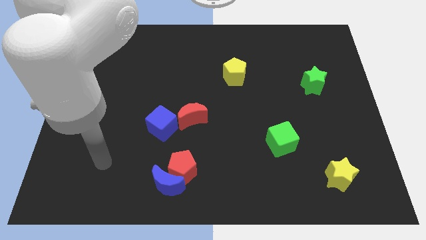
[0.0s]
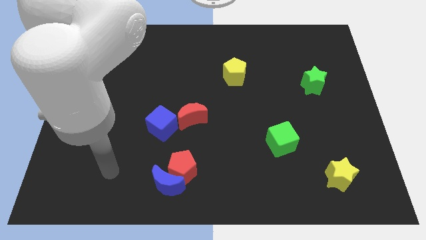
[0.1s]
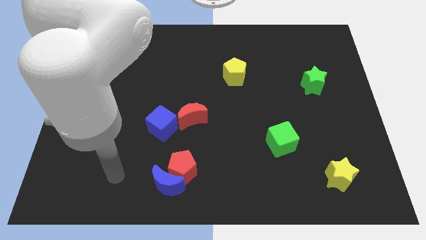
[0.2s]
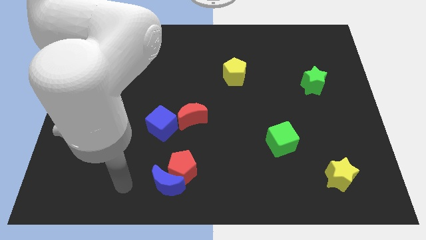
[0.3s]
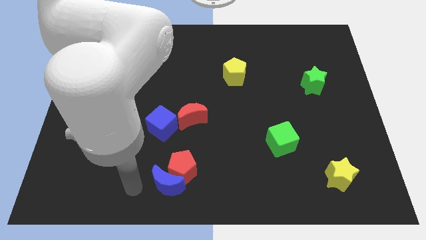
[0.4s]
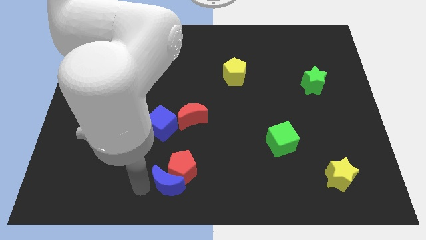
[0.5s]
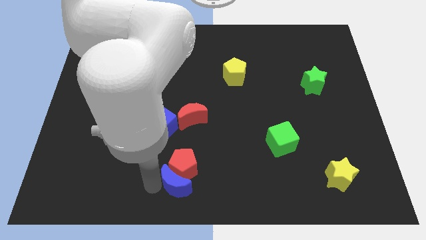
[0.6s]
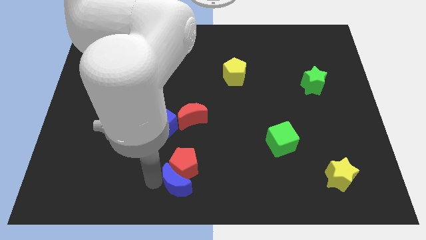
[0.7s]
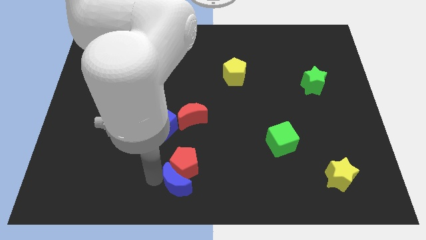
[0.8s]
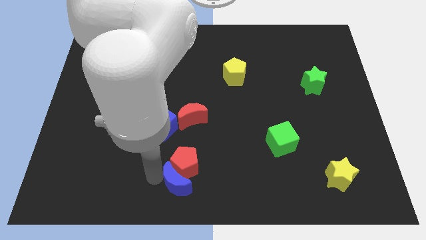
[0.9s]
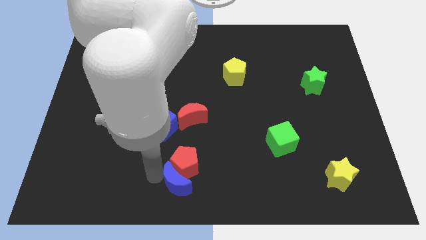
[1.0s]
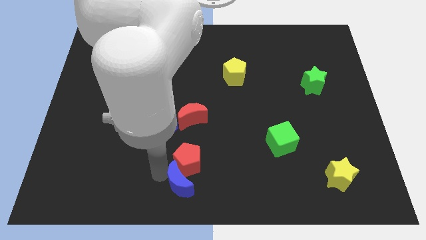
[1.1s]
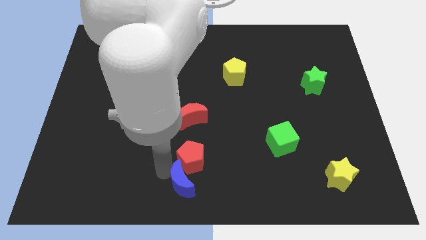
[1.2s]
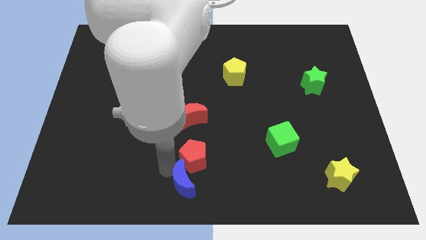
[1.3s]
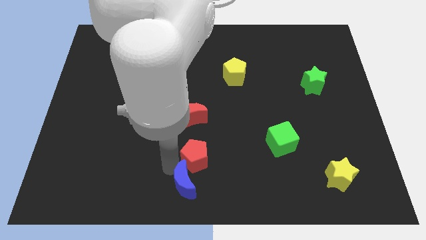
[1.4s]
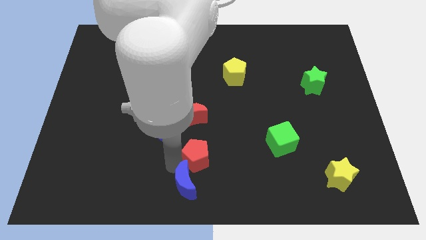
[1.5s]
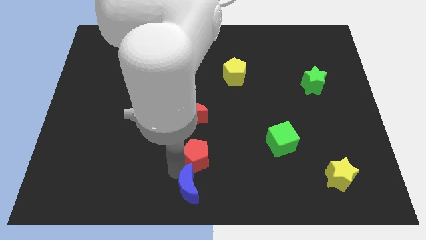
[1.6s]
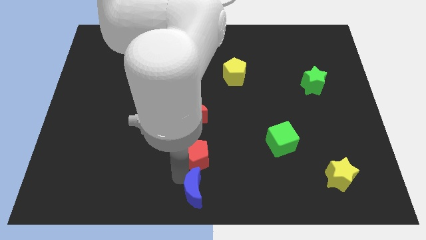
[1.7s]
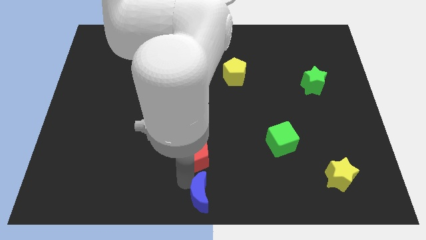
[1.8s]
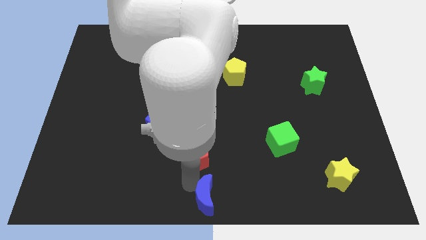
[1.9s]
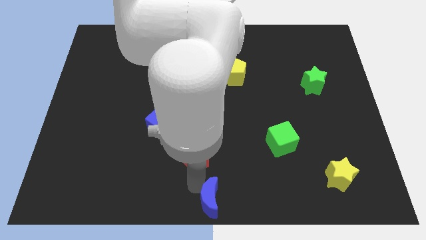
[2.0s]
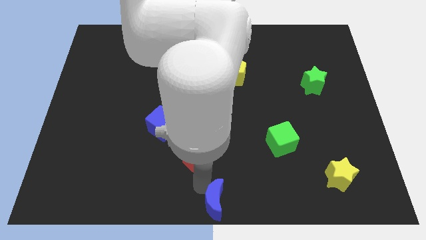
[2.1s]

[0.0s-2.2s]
move the red pentagon away from the blue moon

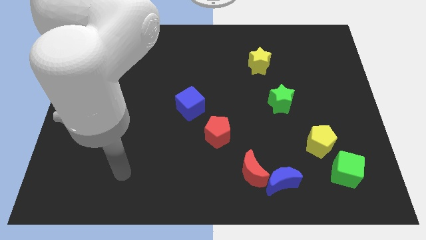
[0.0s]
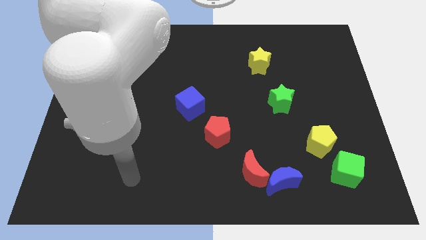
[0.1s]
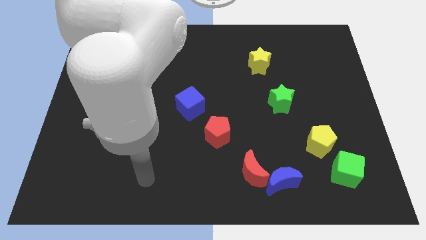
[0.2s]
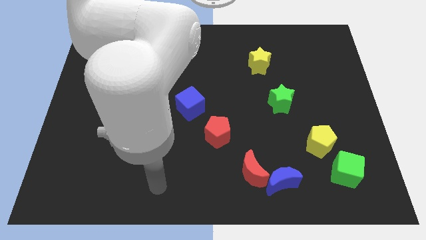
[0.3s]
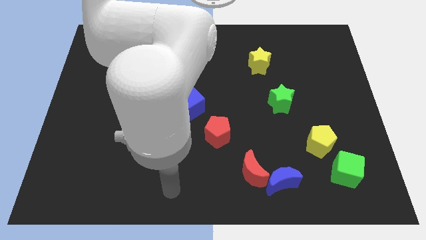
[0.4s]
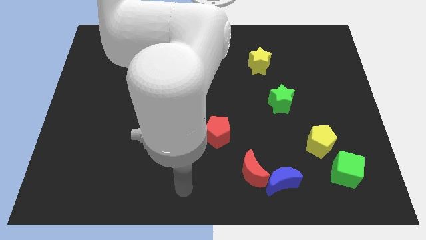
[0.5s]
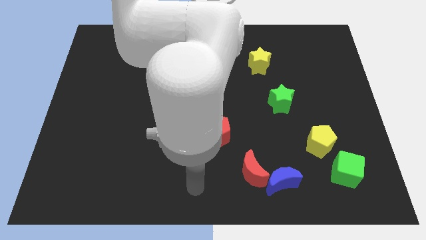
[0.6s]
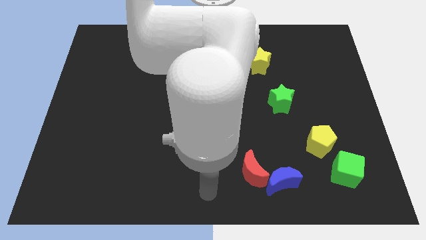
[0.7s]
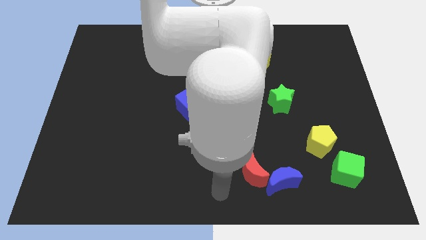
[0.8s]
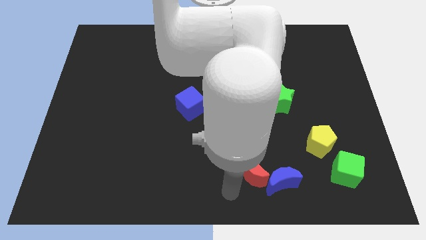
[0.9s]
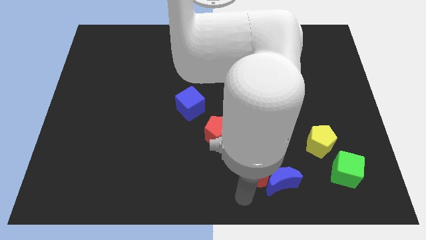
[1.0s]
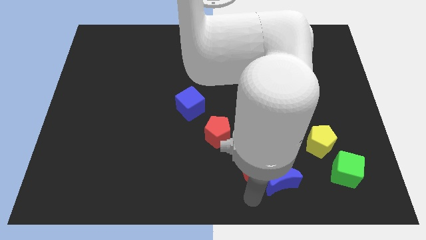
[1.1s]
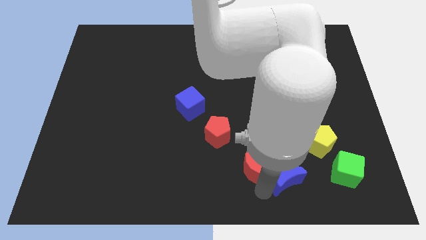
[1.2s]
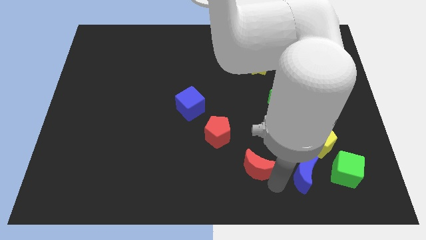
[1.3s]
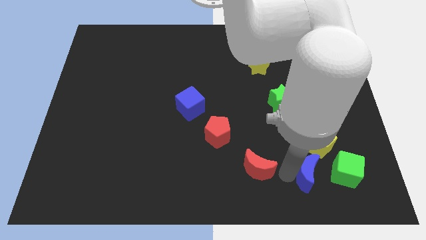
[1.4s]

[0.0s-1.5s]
separate the red moon from the blue moon

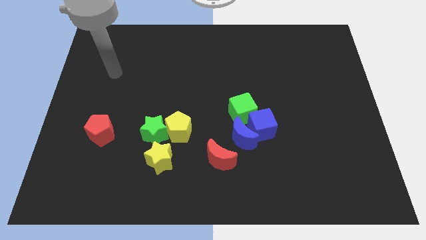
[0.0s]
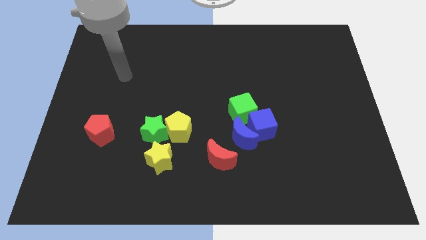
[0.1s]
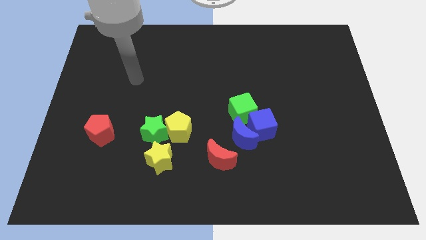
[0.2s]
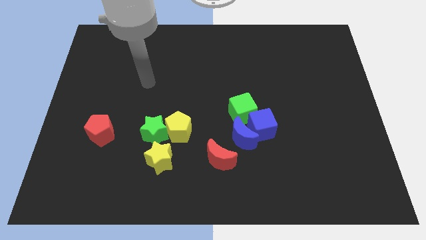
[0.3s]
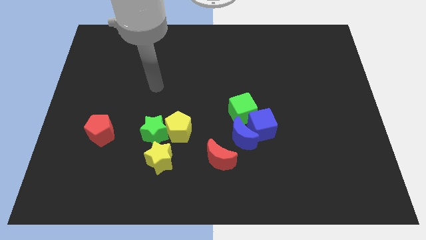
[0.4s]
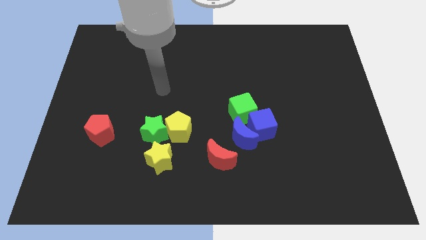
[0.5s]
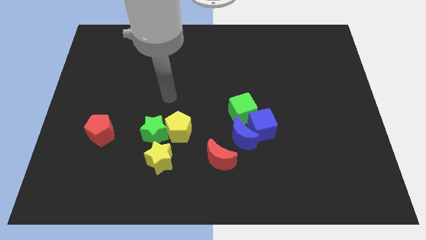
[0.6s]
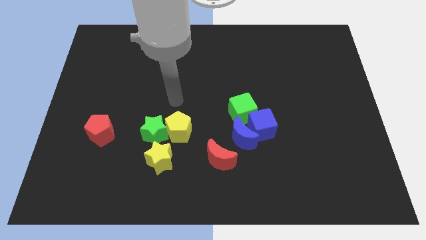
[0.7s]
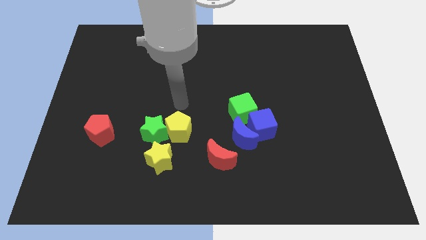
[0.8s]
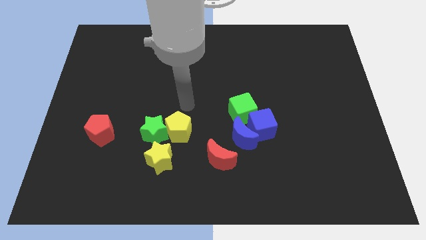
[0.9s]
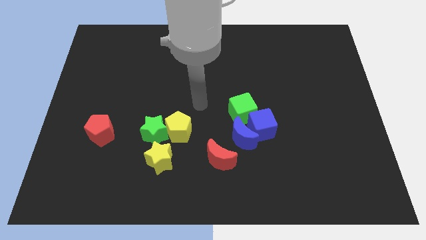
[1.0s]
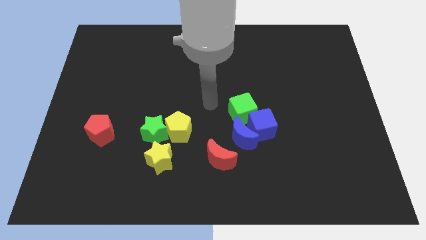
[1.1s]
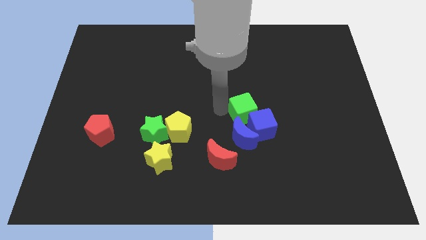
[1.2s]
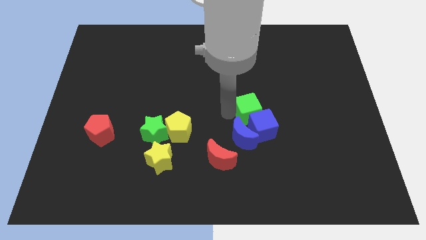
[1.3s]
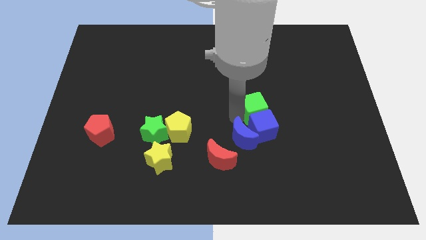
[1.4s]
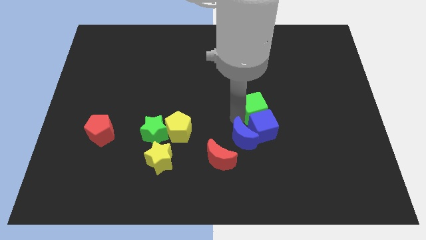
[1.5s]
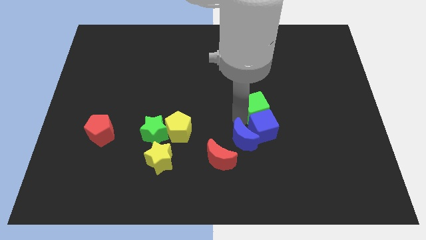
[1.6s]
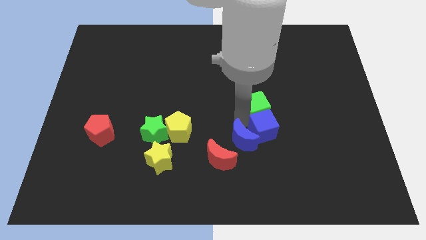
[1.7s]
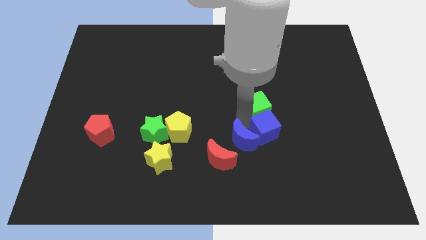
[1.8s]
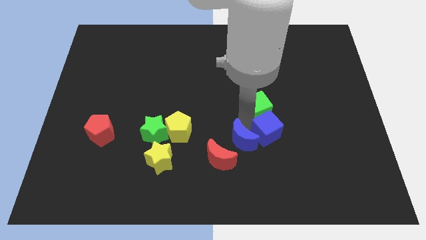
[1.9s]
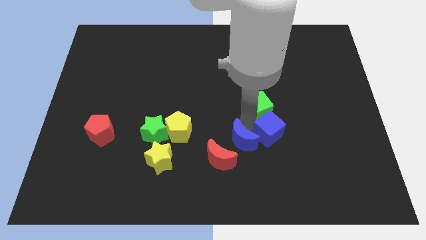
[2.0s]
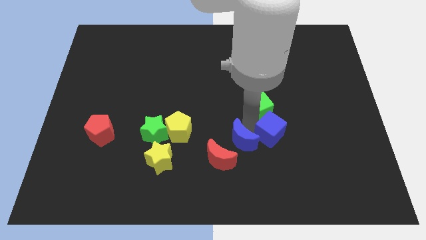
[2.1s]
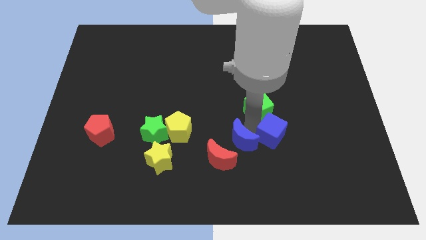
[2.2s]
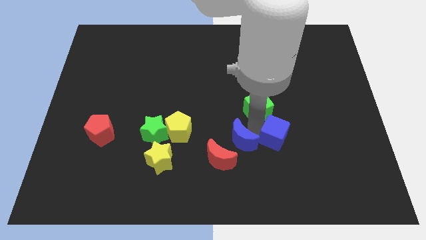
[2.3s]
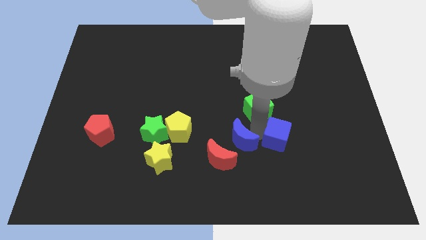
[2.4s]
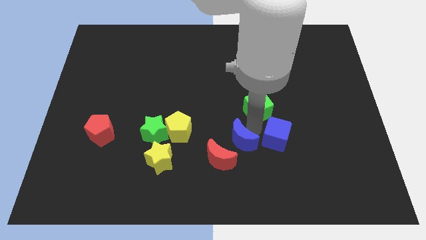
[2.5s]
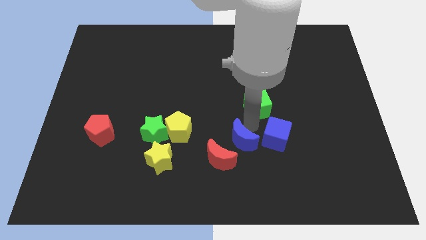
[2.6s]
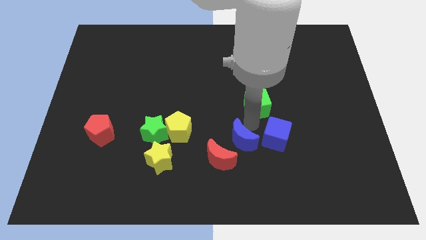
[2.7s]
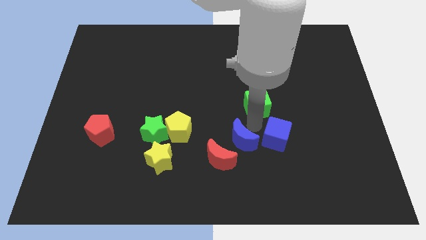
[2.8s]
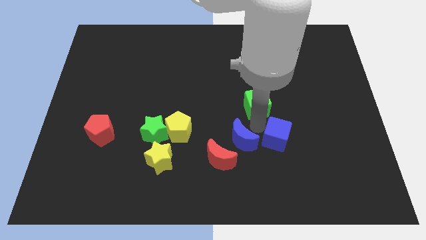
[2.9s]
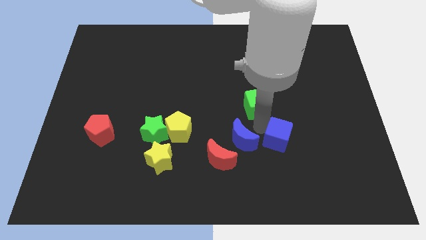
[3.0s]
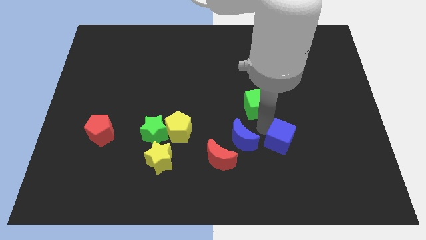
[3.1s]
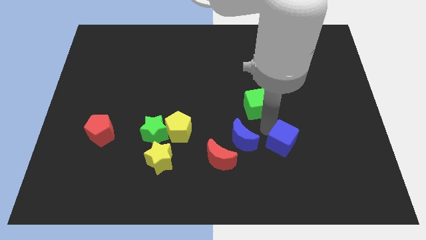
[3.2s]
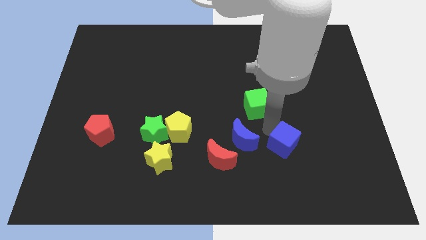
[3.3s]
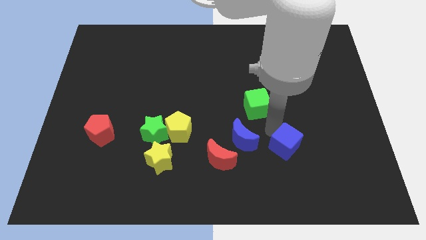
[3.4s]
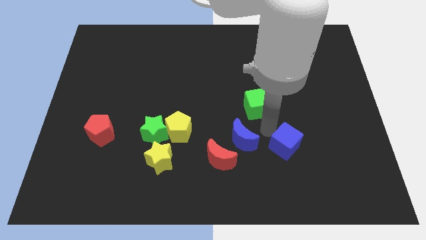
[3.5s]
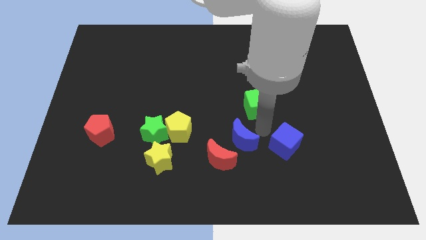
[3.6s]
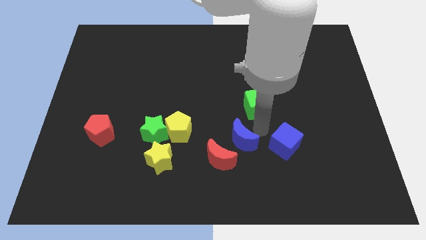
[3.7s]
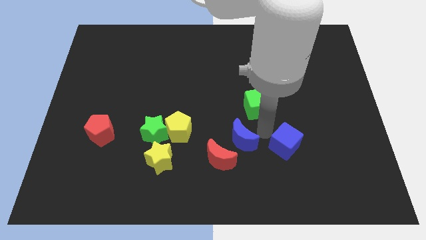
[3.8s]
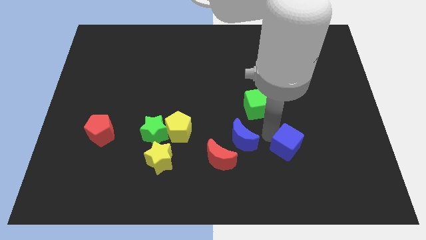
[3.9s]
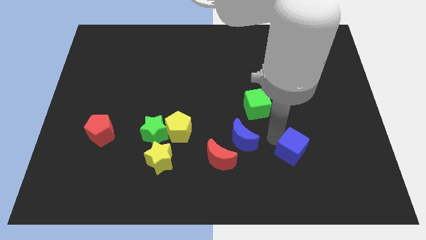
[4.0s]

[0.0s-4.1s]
move the blue cube away from the blue moon and green cube

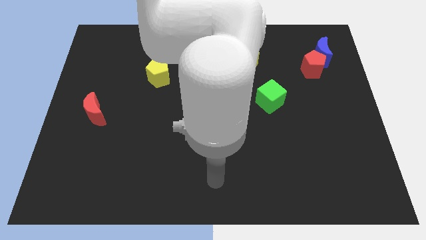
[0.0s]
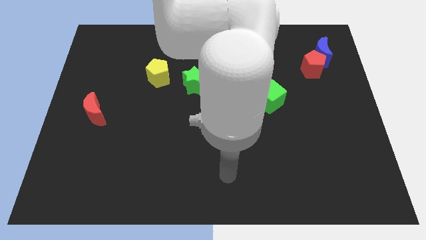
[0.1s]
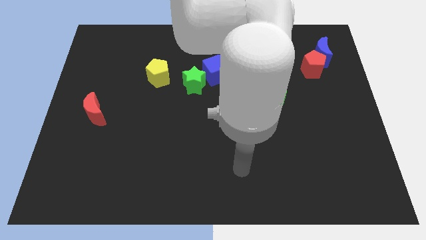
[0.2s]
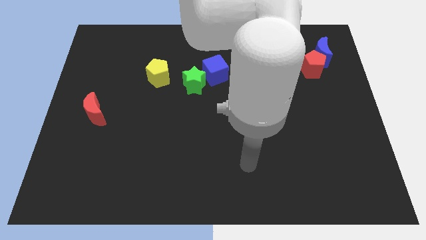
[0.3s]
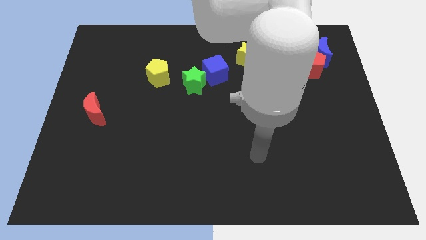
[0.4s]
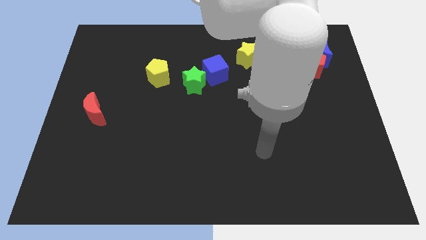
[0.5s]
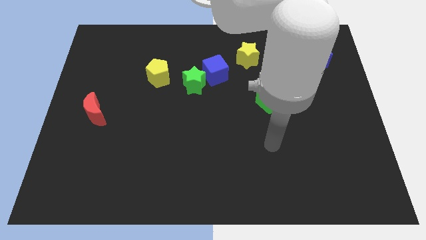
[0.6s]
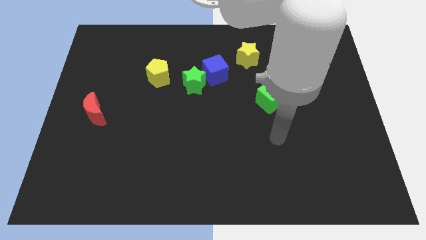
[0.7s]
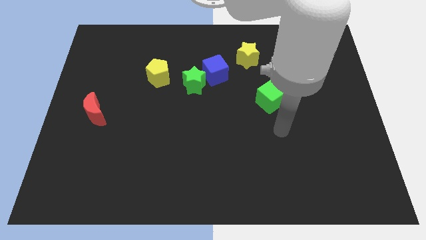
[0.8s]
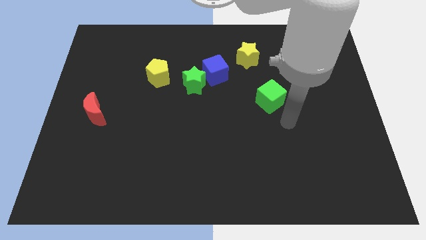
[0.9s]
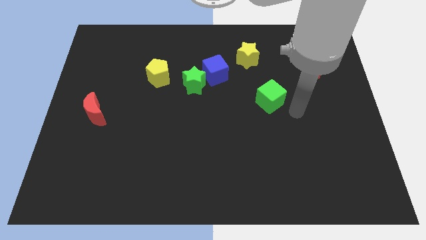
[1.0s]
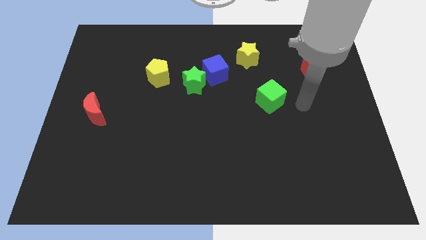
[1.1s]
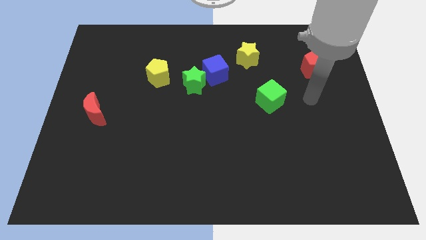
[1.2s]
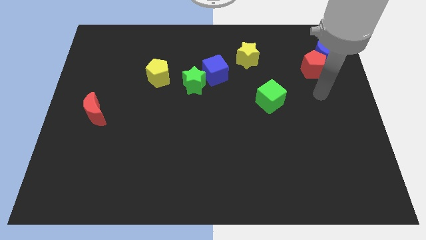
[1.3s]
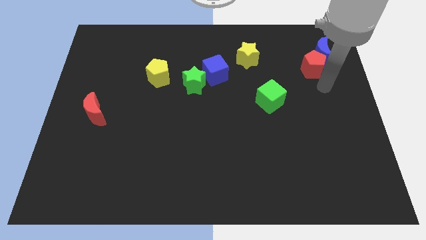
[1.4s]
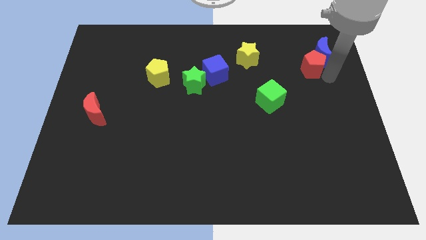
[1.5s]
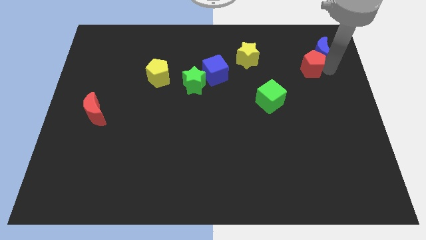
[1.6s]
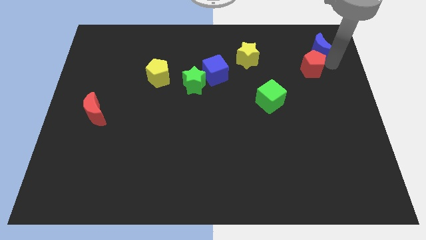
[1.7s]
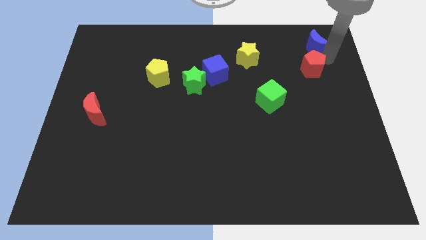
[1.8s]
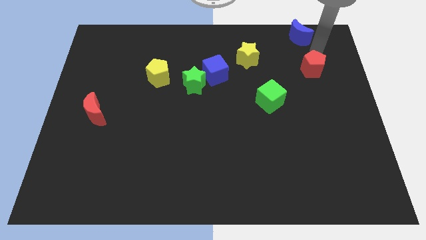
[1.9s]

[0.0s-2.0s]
pull the red pentagon apart from the blue moon
